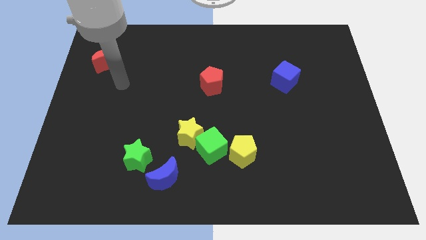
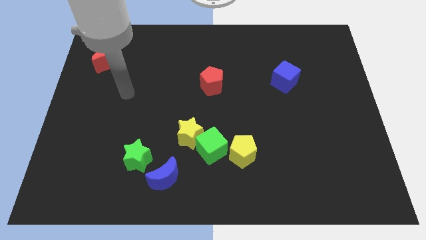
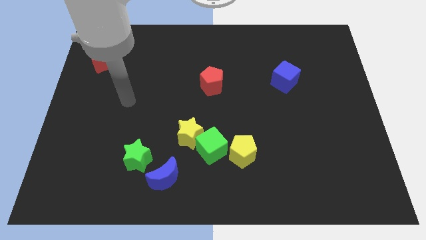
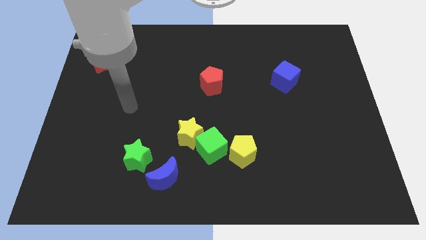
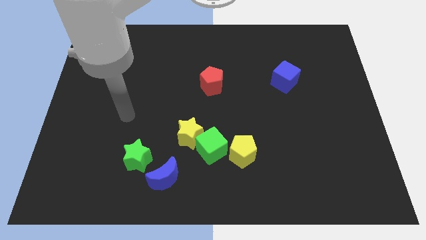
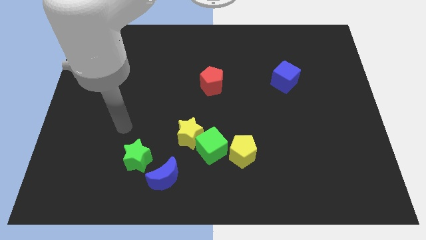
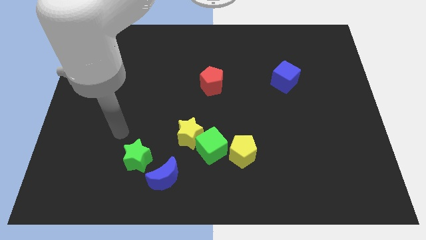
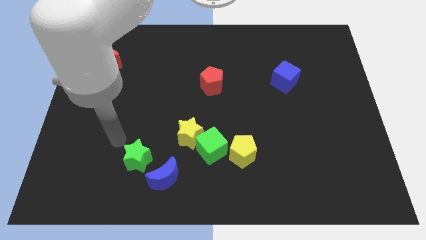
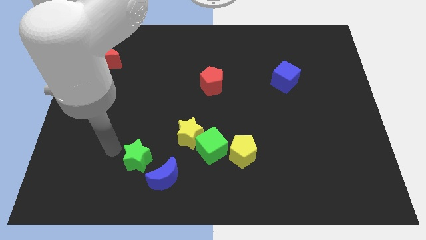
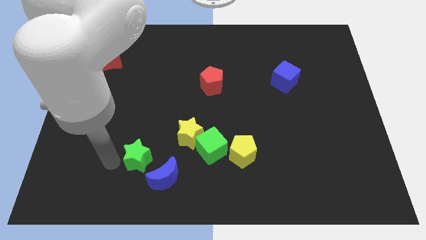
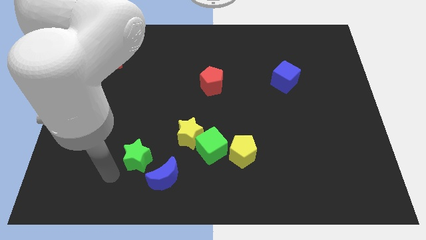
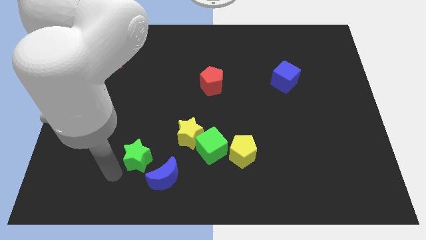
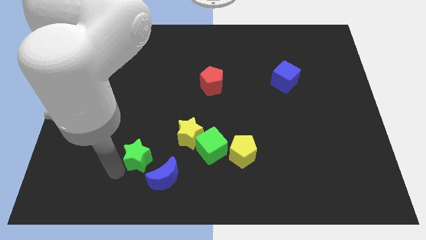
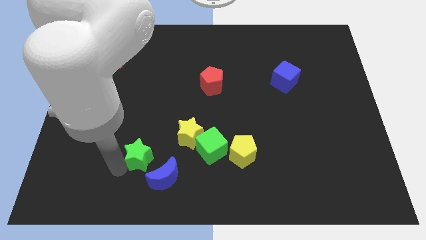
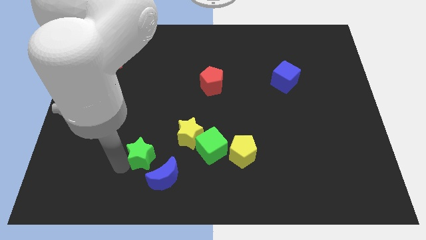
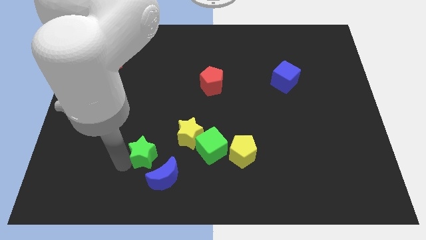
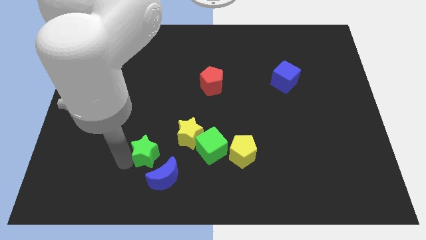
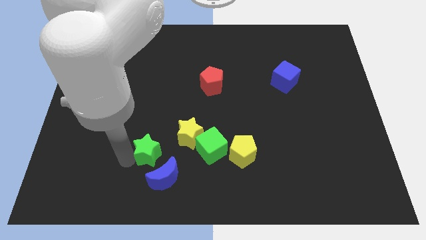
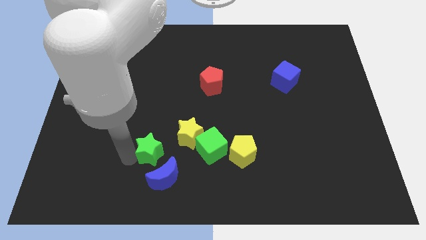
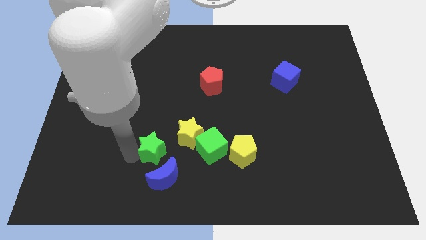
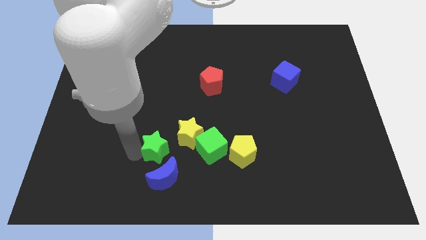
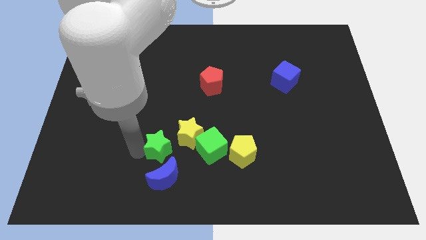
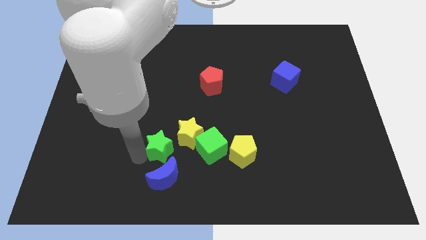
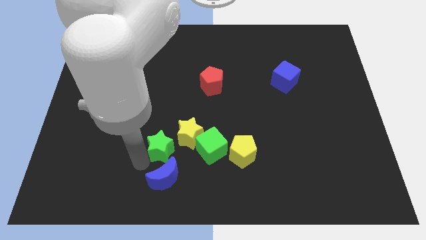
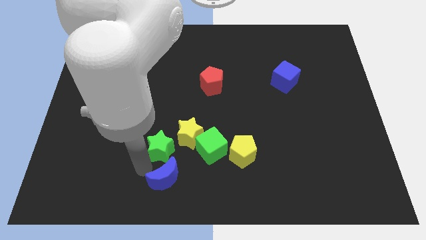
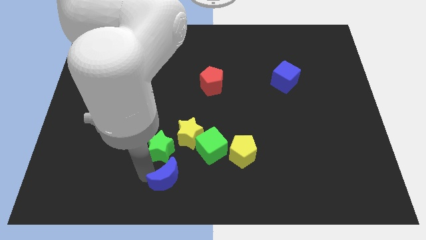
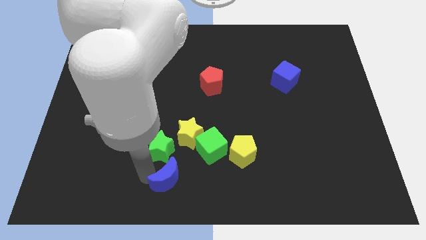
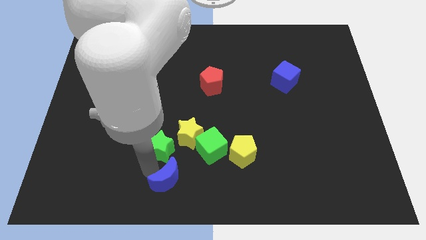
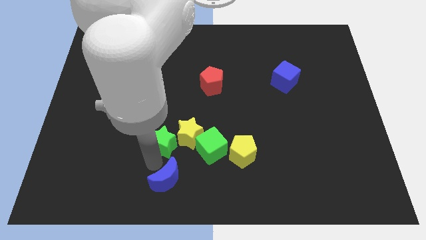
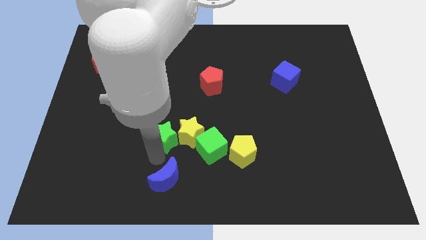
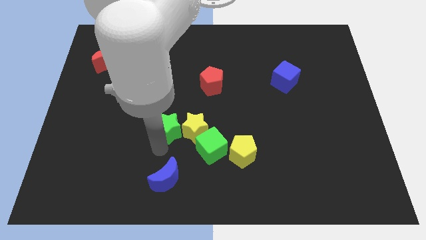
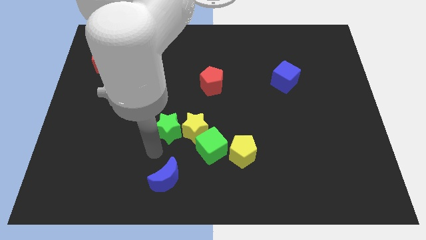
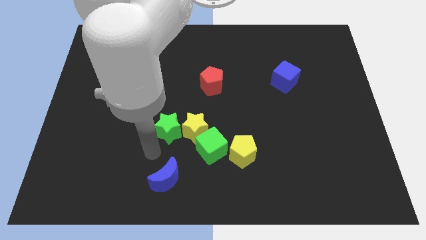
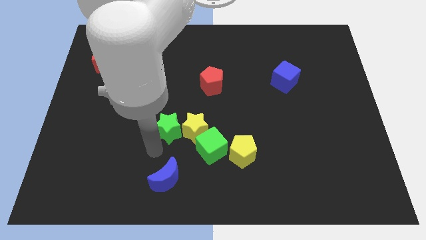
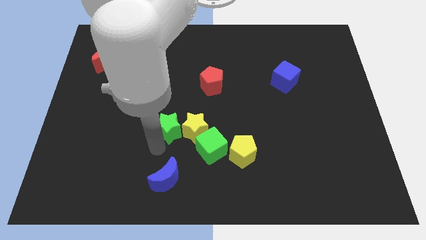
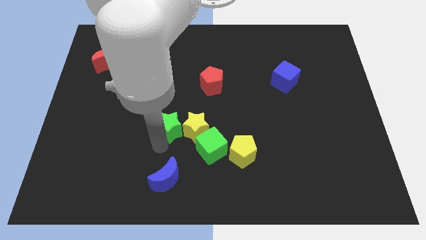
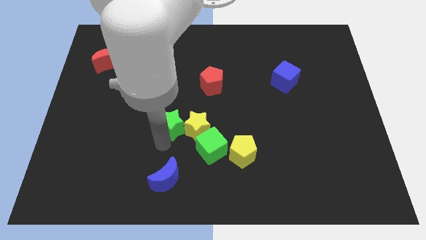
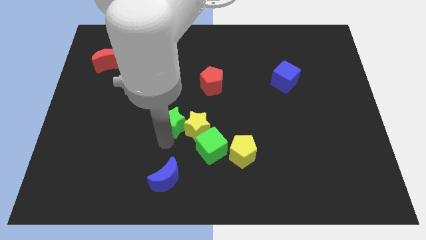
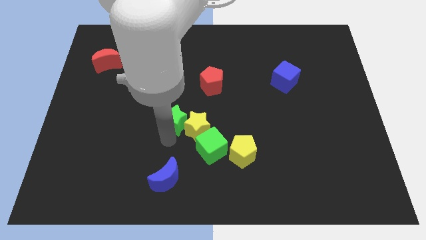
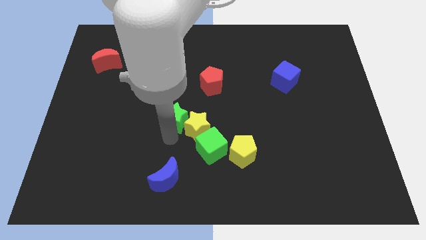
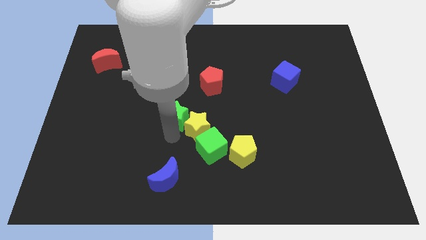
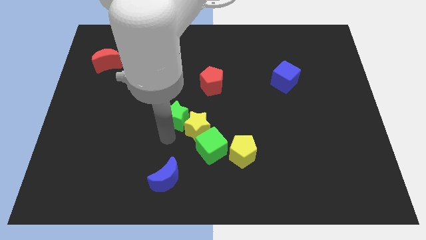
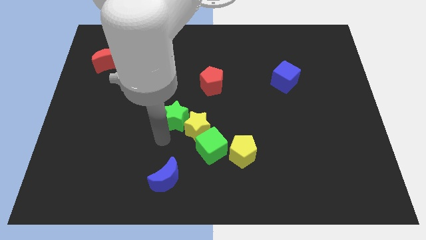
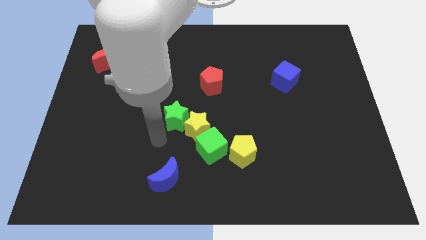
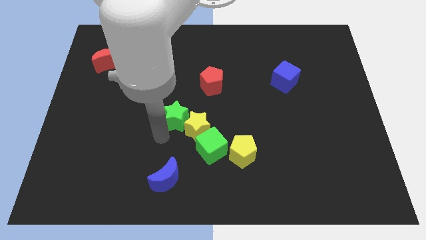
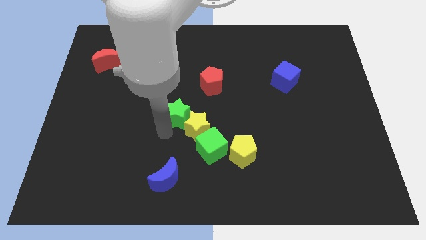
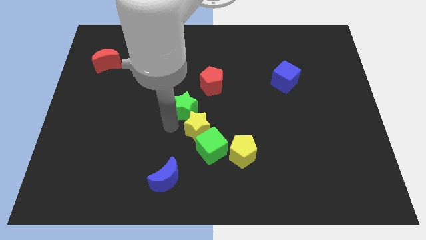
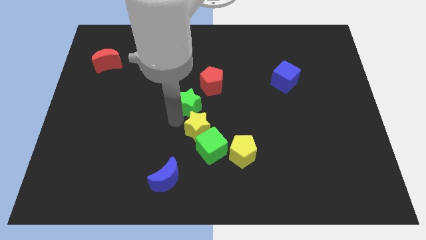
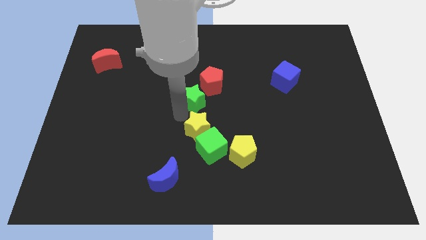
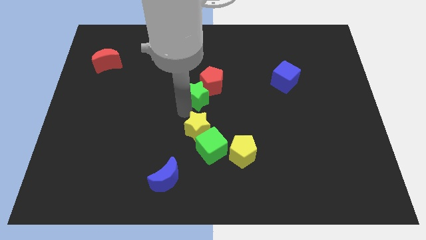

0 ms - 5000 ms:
put the green star to the red pentagon

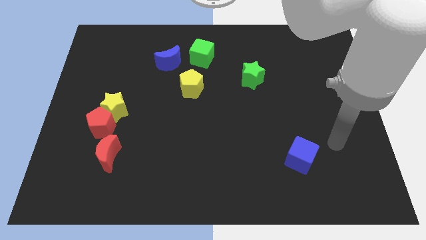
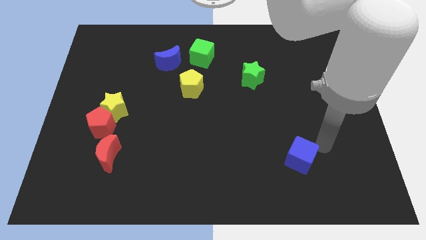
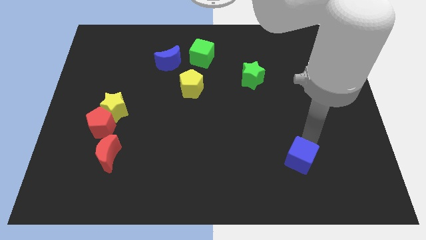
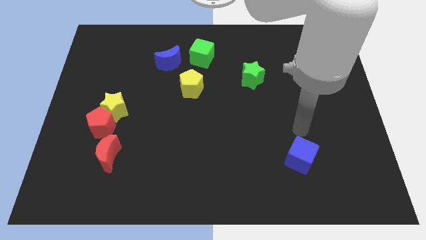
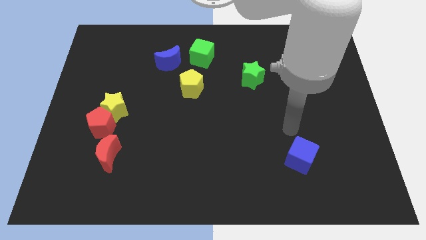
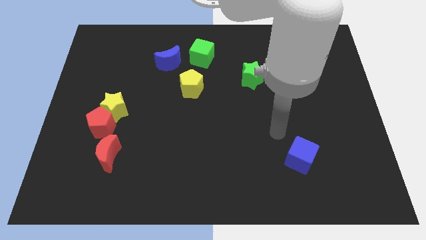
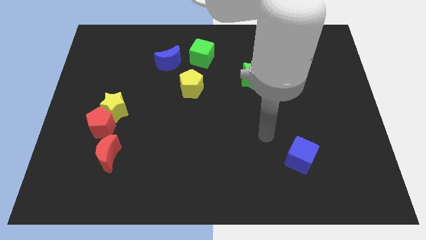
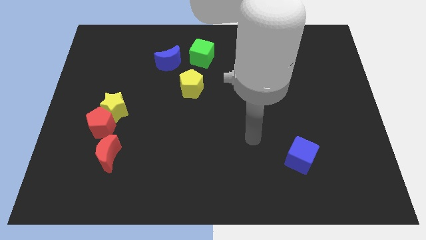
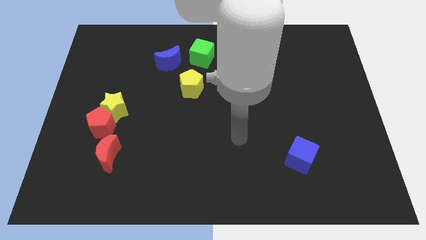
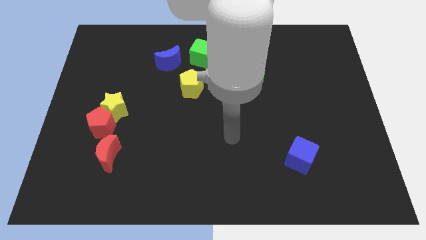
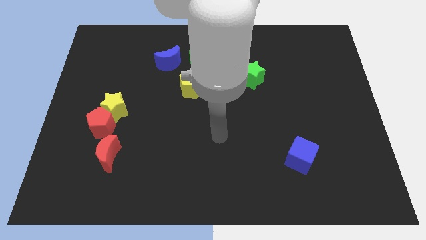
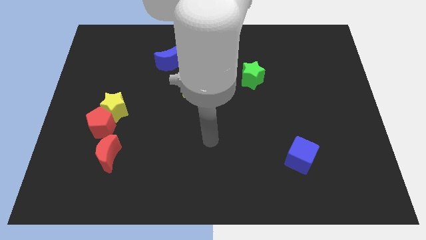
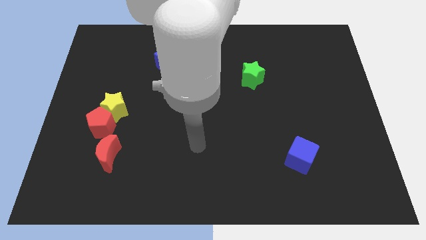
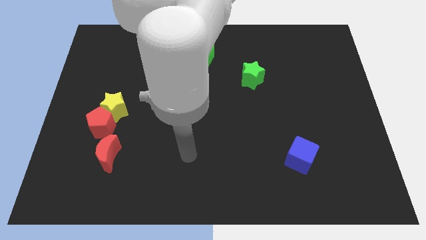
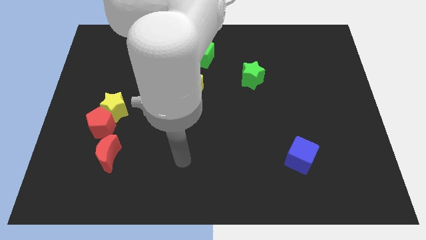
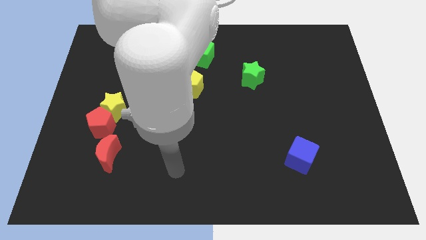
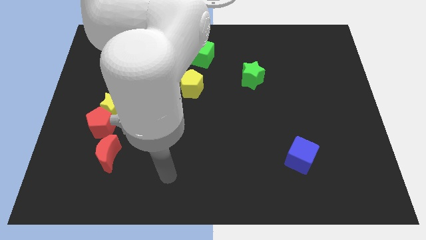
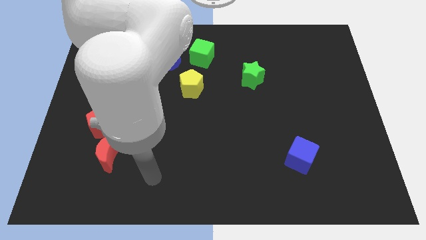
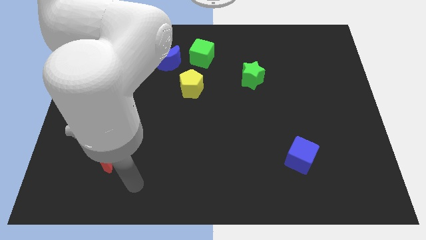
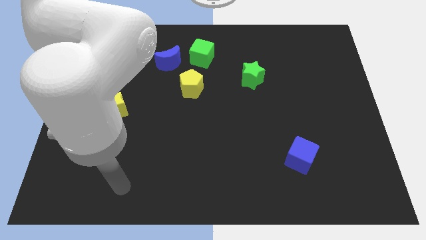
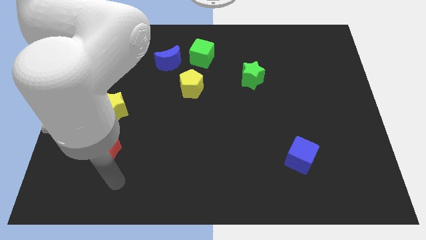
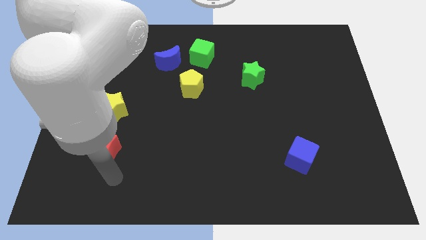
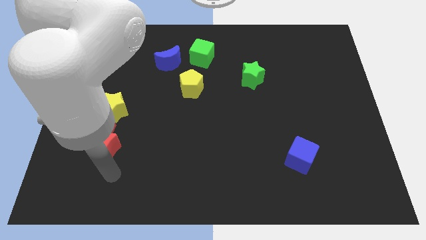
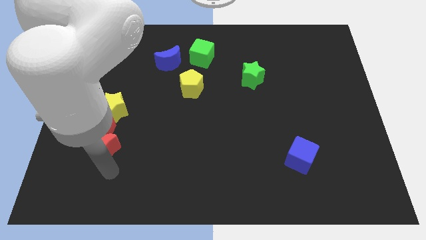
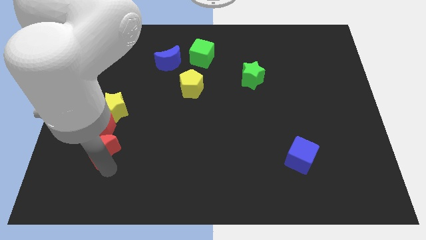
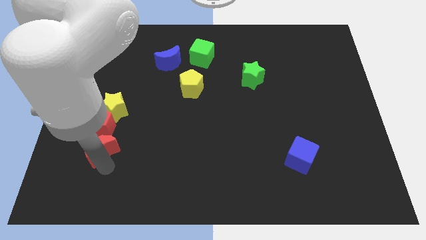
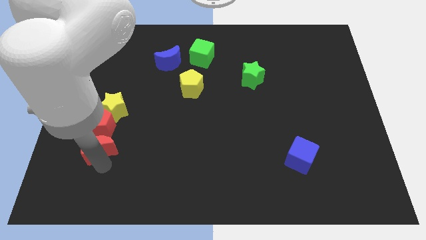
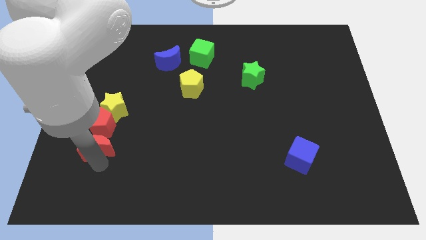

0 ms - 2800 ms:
slide the red moon towards the red pentagon

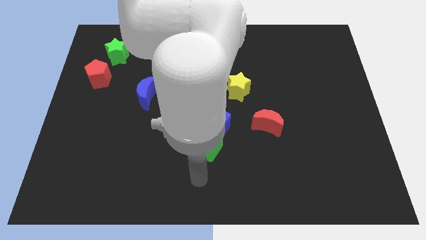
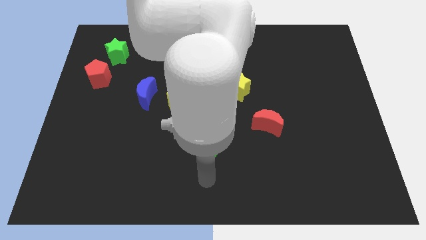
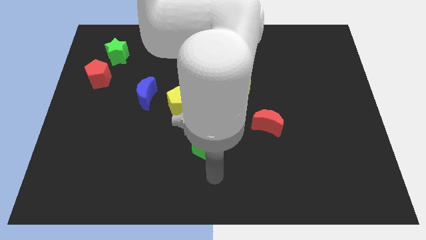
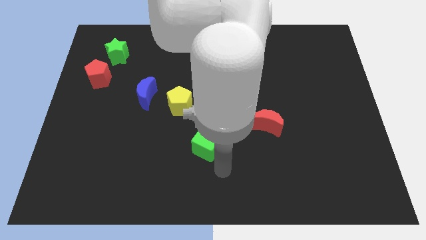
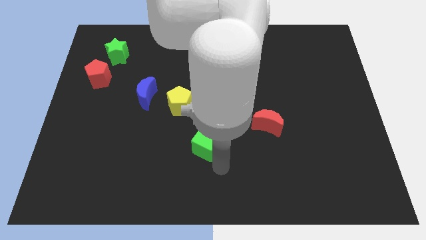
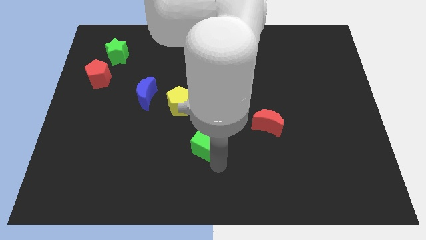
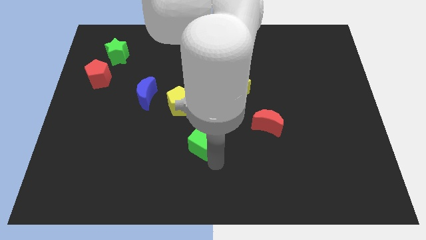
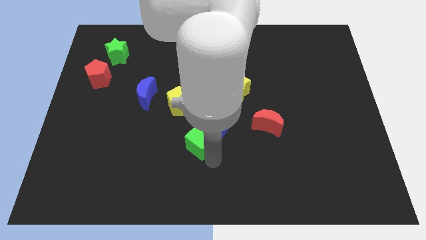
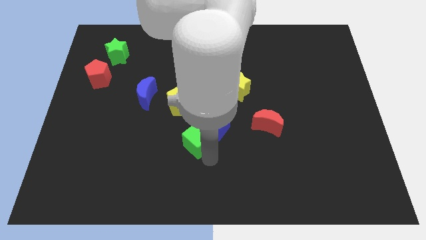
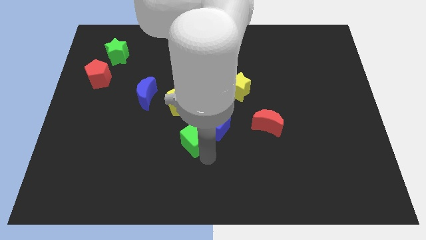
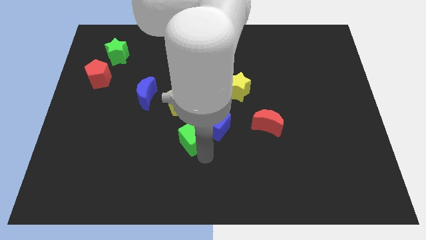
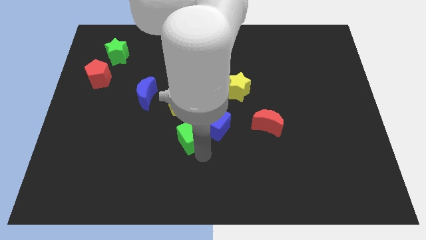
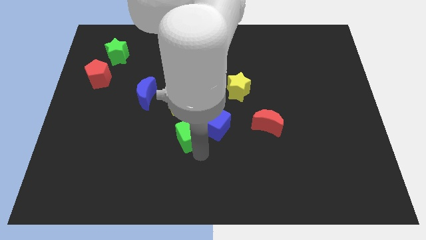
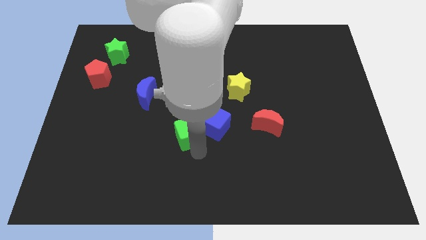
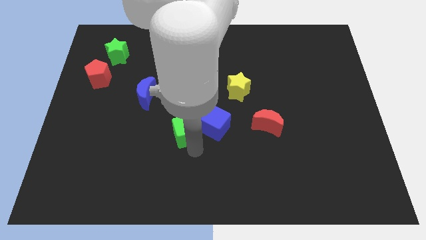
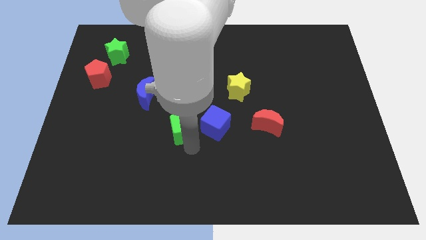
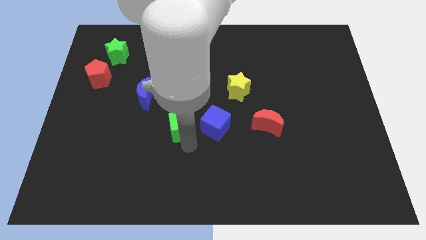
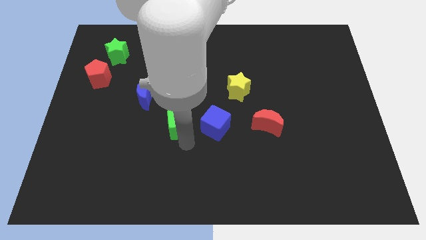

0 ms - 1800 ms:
put the green cube close to the yellow pentagon
